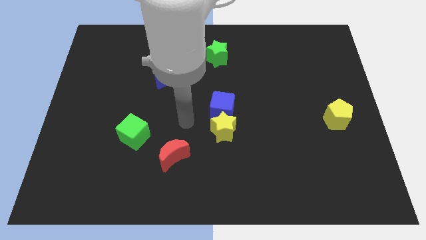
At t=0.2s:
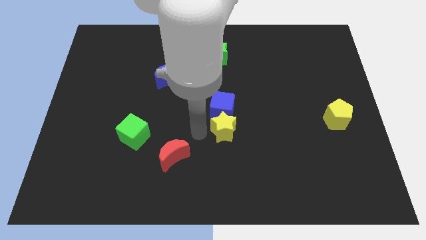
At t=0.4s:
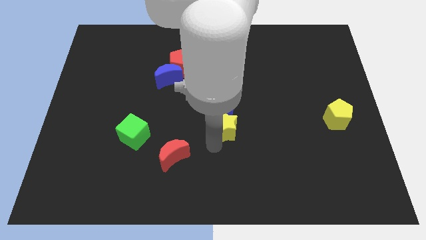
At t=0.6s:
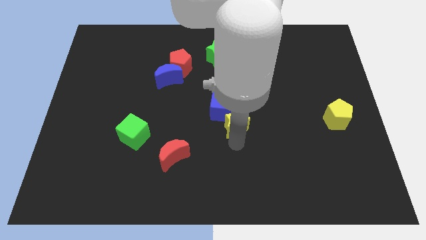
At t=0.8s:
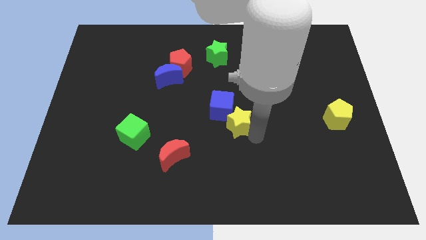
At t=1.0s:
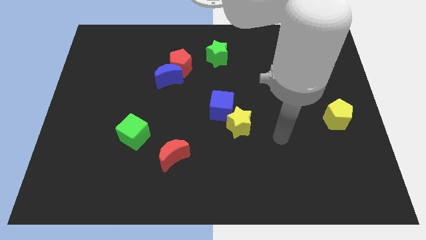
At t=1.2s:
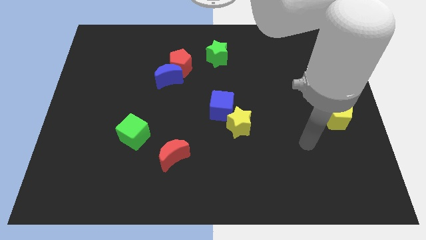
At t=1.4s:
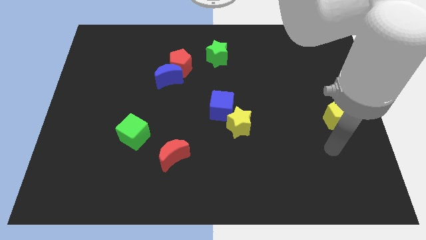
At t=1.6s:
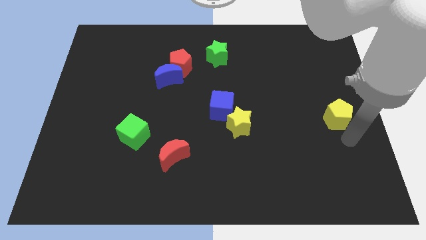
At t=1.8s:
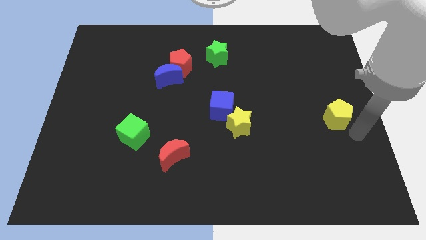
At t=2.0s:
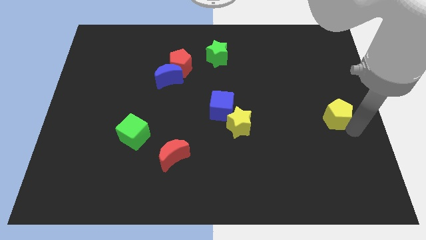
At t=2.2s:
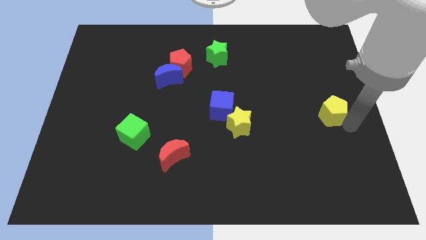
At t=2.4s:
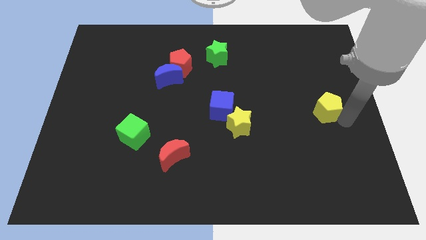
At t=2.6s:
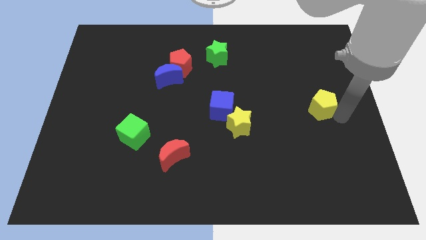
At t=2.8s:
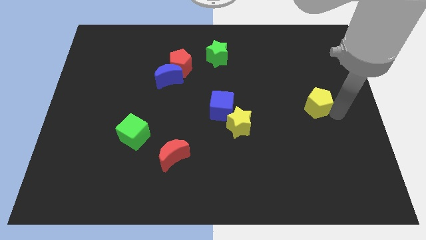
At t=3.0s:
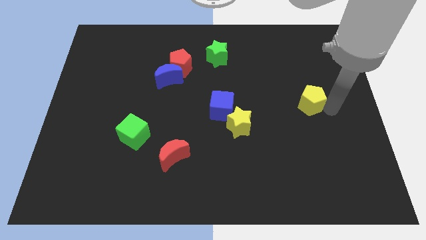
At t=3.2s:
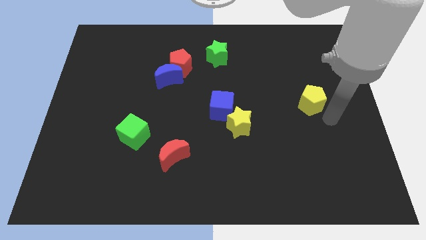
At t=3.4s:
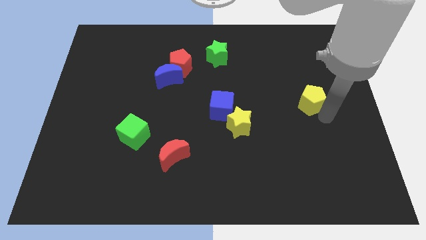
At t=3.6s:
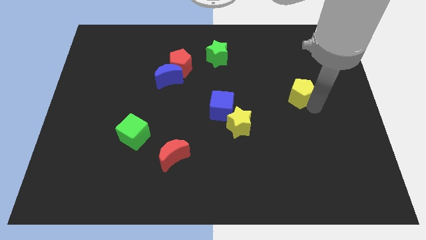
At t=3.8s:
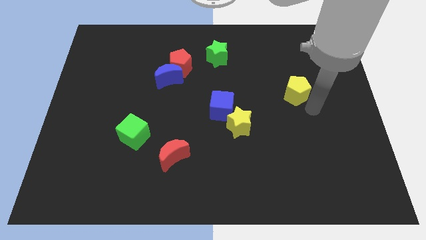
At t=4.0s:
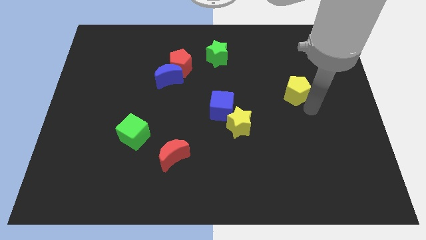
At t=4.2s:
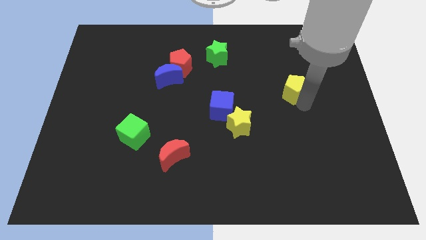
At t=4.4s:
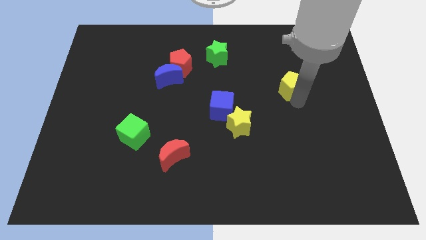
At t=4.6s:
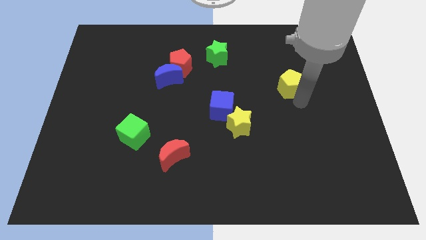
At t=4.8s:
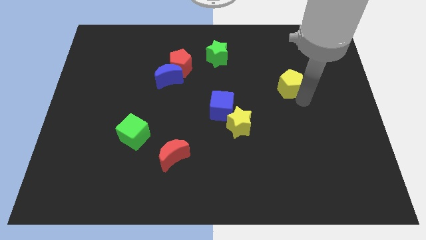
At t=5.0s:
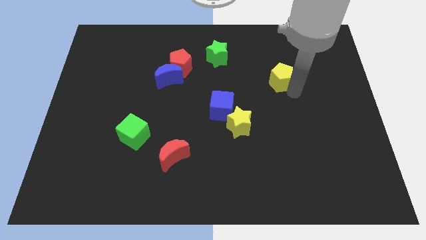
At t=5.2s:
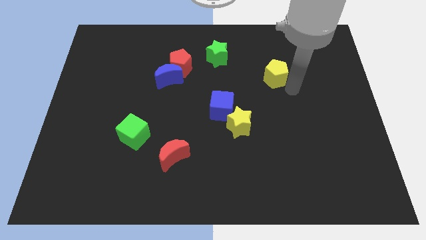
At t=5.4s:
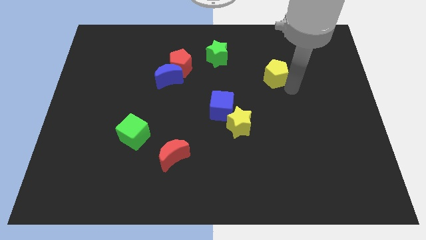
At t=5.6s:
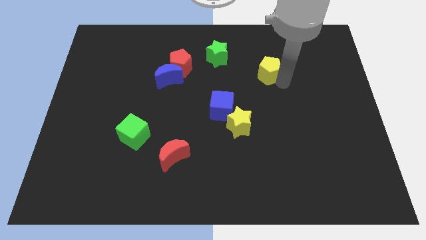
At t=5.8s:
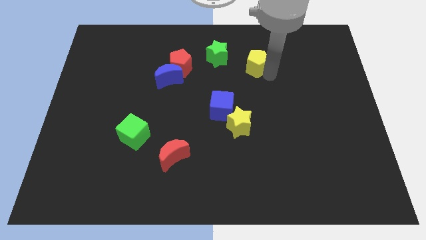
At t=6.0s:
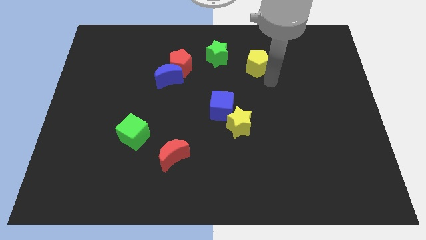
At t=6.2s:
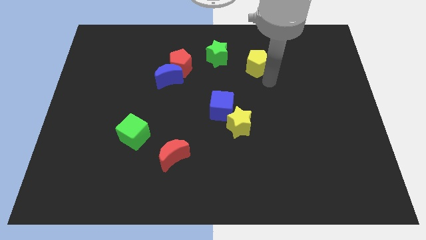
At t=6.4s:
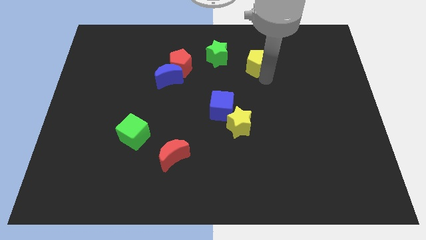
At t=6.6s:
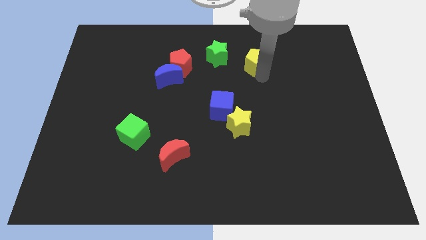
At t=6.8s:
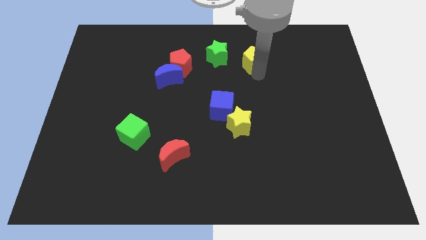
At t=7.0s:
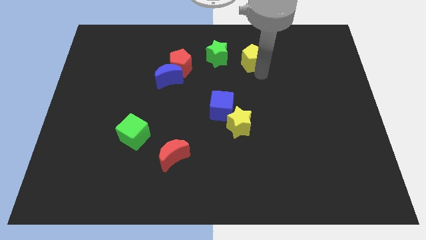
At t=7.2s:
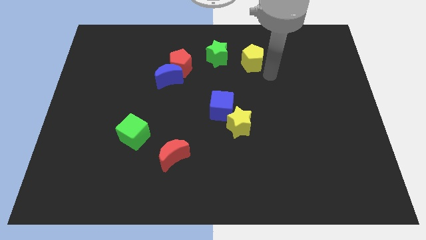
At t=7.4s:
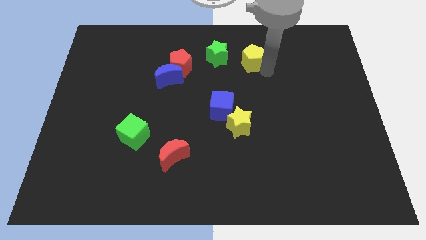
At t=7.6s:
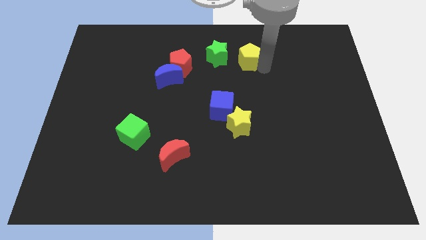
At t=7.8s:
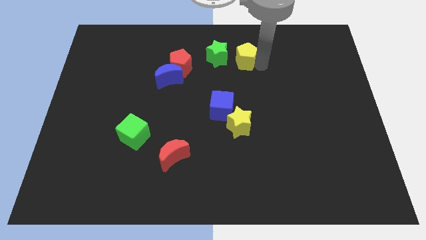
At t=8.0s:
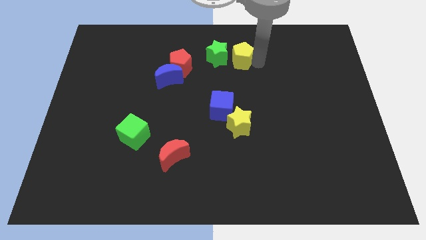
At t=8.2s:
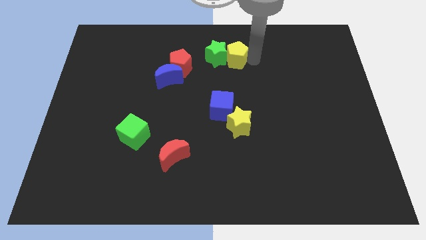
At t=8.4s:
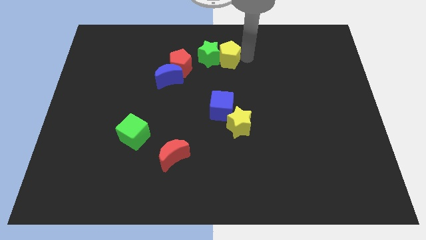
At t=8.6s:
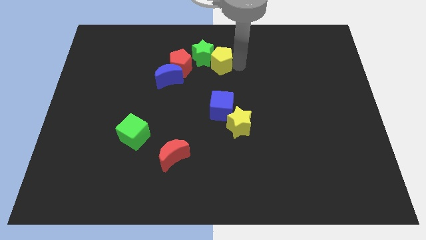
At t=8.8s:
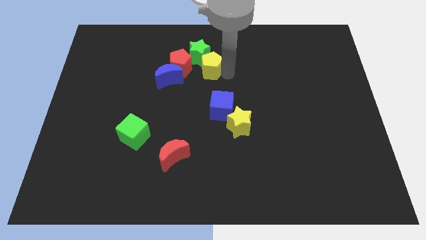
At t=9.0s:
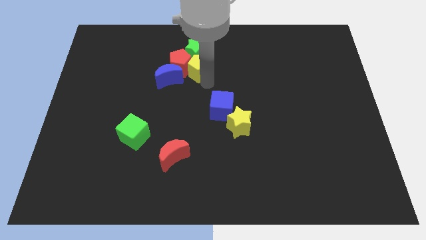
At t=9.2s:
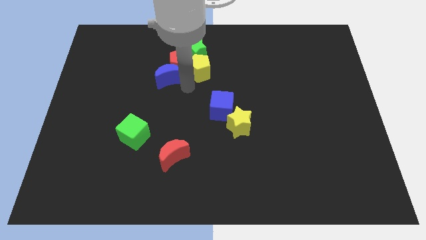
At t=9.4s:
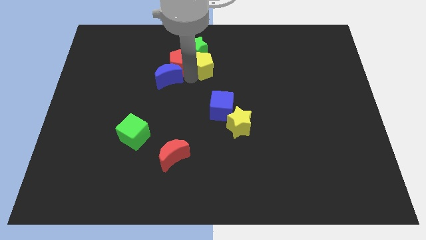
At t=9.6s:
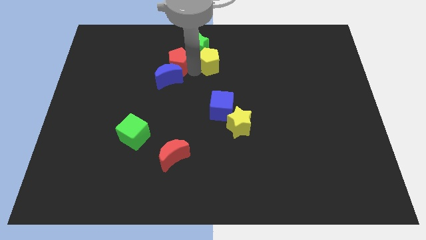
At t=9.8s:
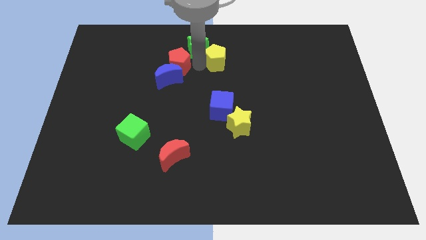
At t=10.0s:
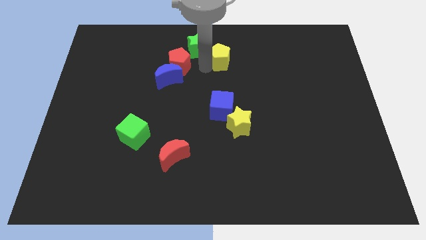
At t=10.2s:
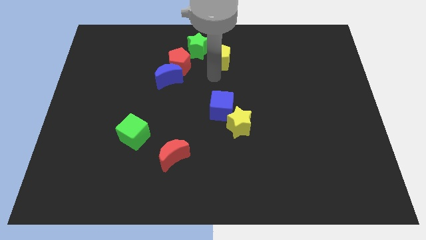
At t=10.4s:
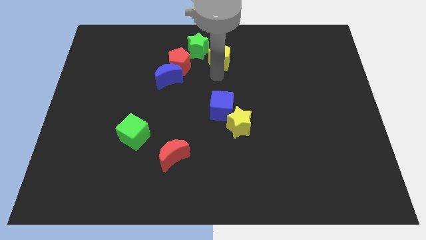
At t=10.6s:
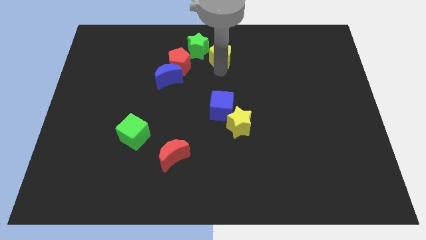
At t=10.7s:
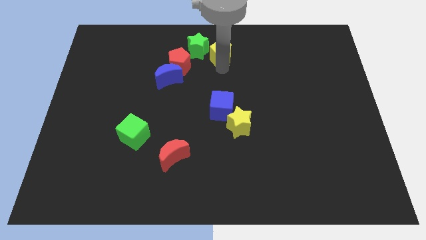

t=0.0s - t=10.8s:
move the yellow pentagon to the top
